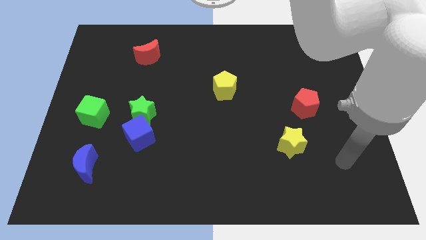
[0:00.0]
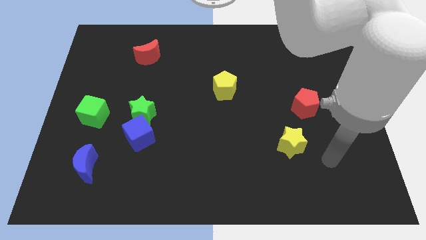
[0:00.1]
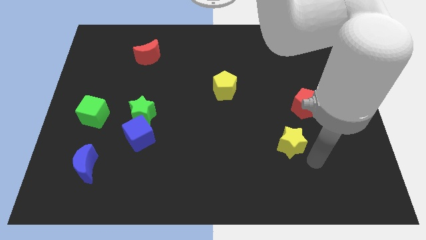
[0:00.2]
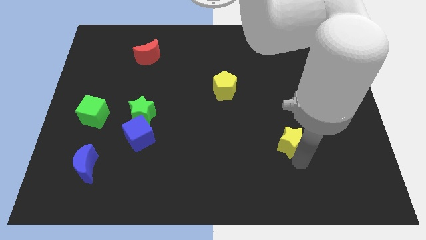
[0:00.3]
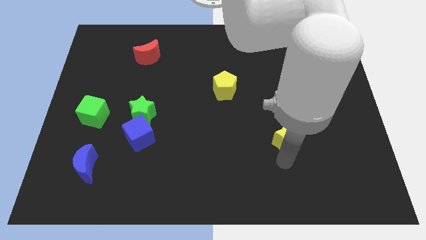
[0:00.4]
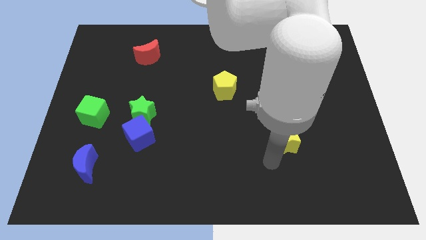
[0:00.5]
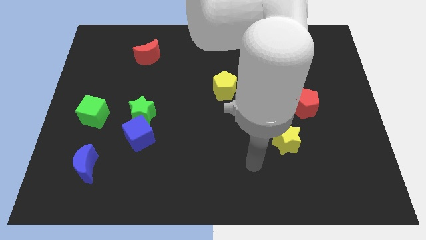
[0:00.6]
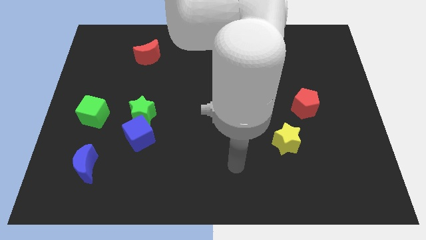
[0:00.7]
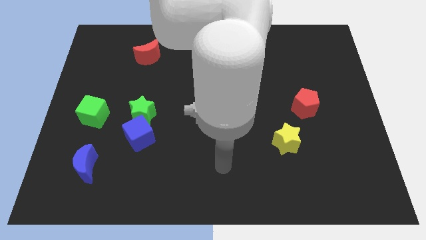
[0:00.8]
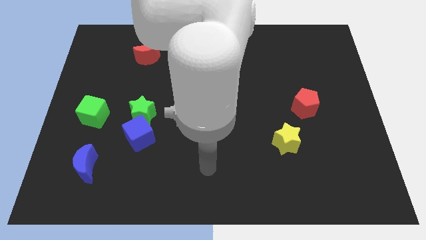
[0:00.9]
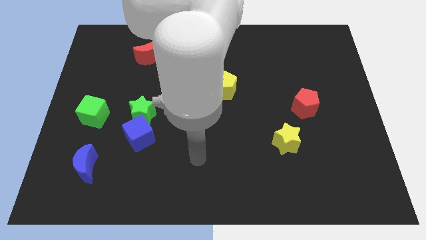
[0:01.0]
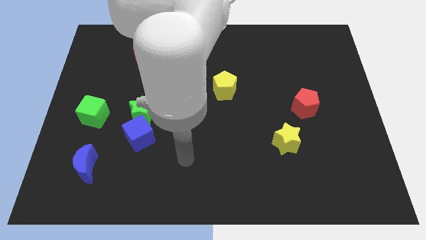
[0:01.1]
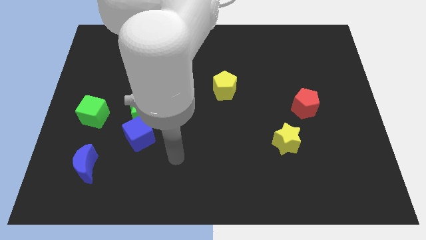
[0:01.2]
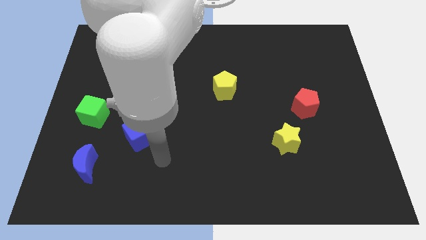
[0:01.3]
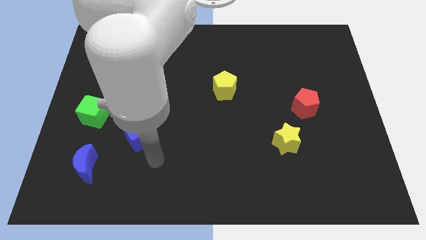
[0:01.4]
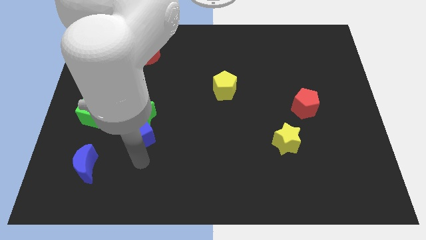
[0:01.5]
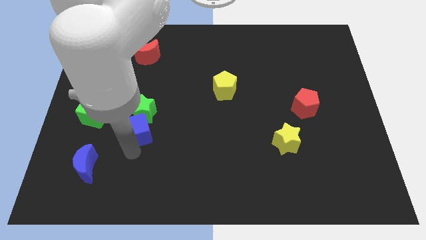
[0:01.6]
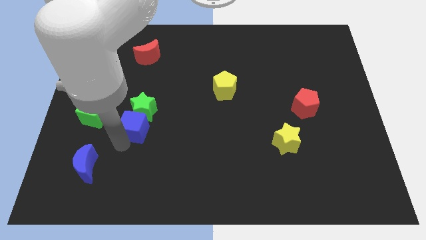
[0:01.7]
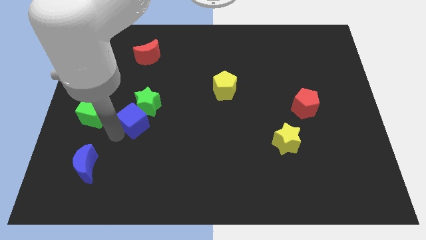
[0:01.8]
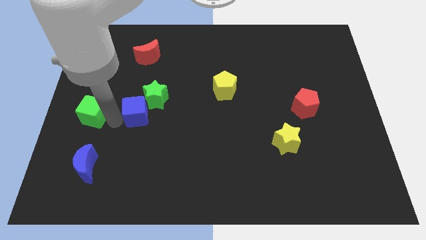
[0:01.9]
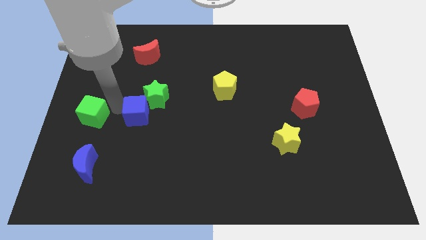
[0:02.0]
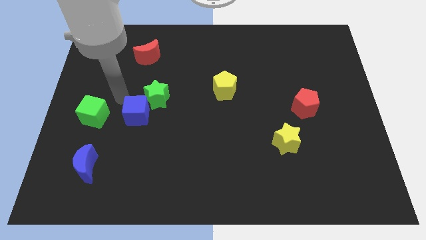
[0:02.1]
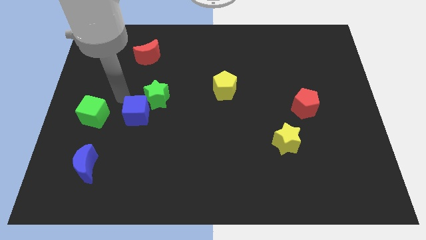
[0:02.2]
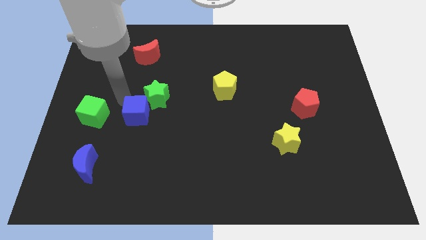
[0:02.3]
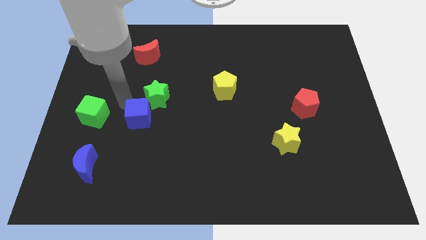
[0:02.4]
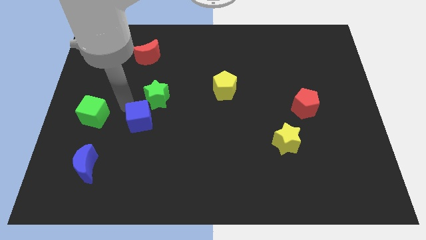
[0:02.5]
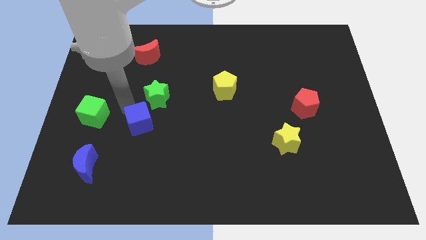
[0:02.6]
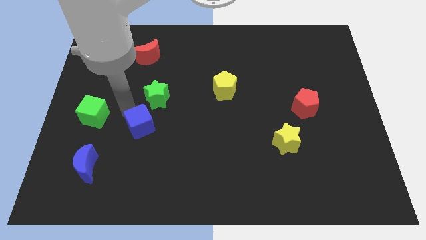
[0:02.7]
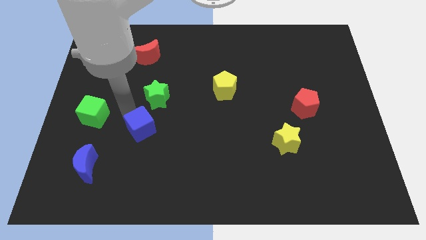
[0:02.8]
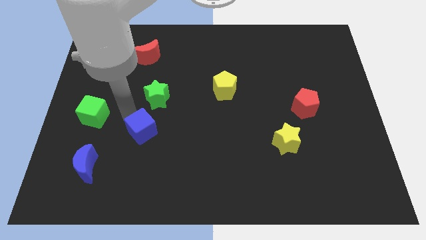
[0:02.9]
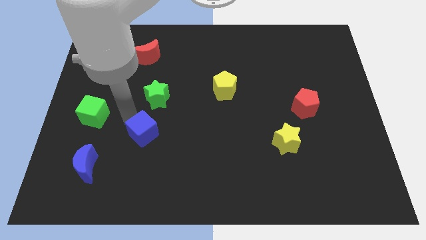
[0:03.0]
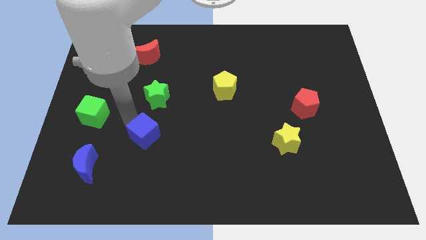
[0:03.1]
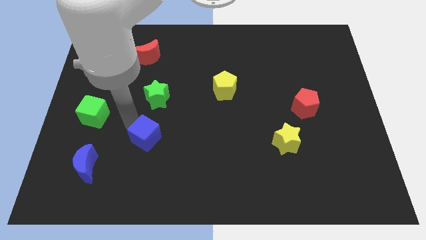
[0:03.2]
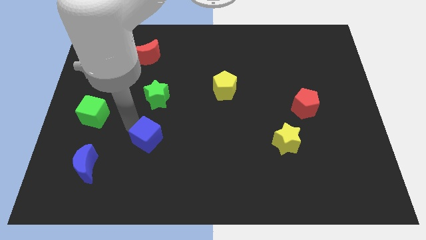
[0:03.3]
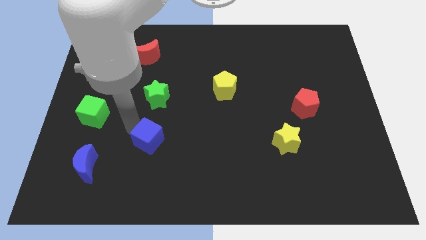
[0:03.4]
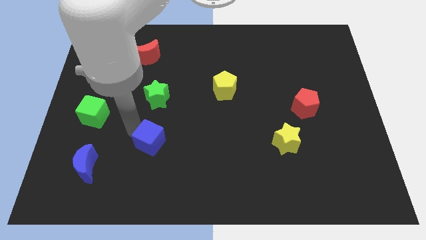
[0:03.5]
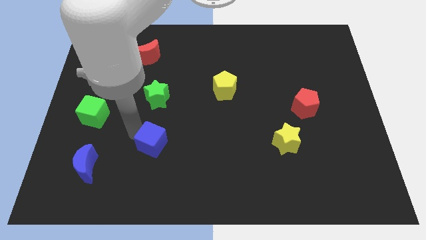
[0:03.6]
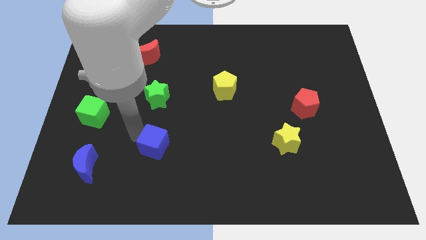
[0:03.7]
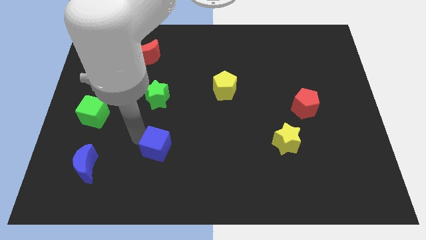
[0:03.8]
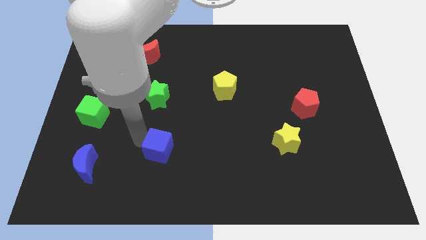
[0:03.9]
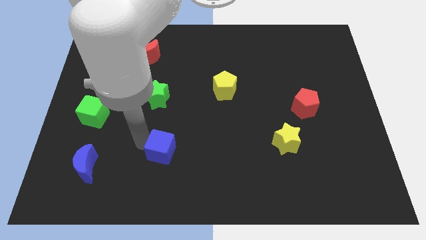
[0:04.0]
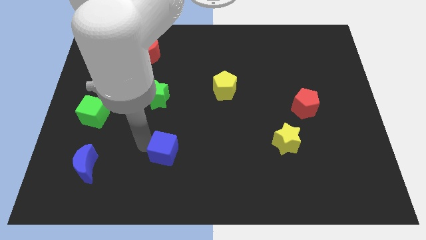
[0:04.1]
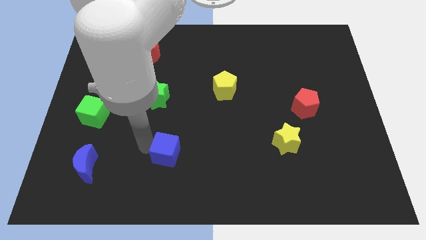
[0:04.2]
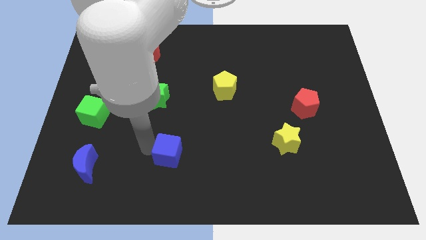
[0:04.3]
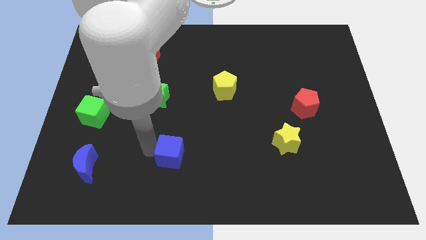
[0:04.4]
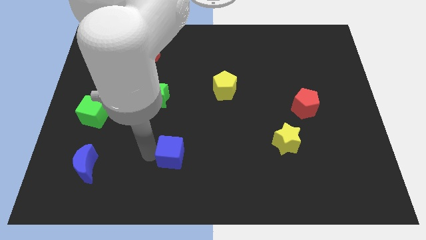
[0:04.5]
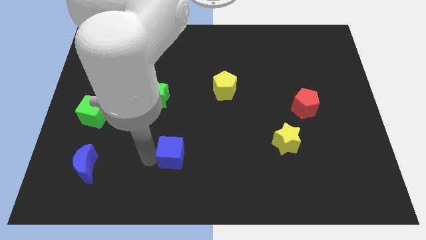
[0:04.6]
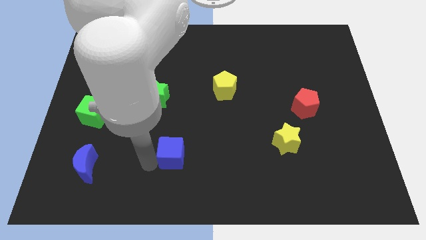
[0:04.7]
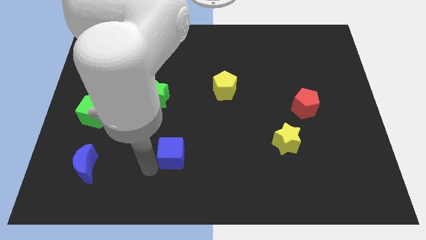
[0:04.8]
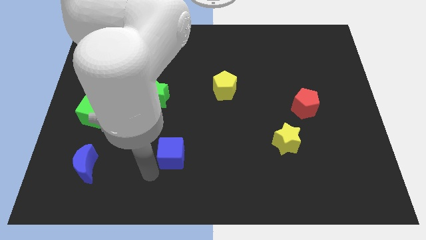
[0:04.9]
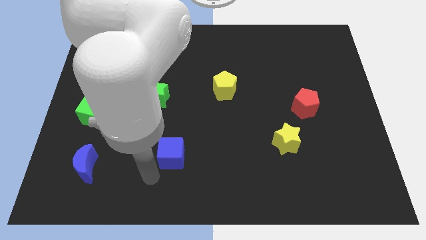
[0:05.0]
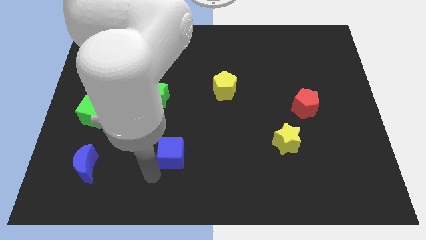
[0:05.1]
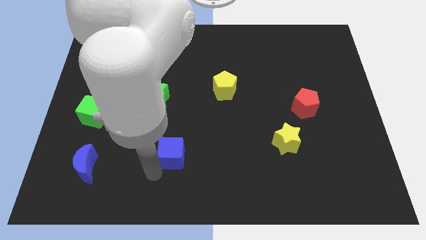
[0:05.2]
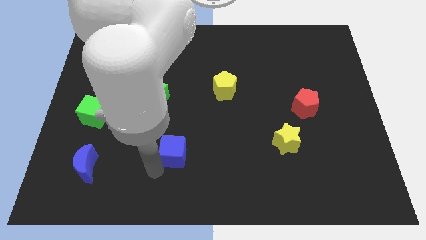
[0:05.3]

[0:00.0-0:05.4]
slightly move the blue cube to the right

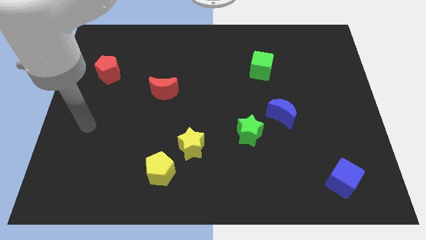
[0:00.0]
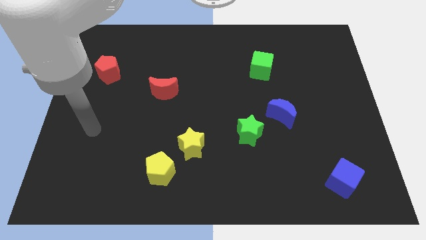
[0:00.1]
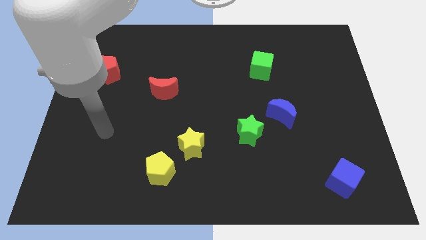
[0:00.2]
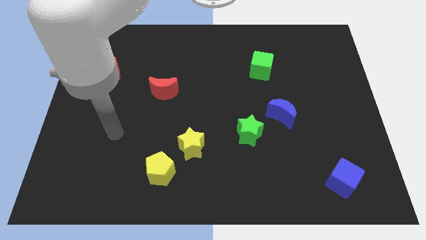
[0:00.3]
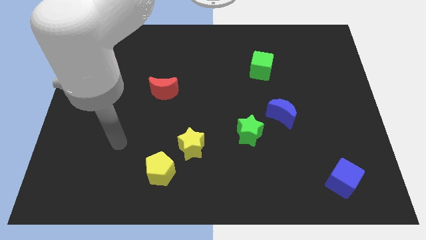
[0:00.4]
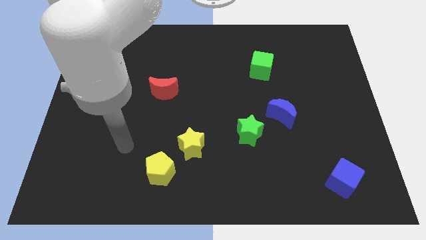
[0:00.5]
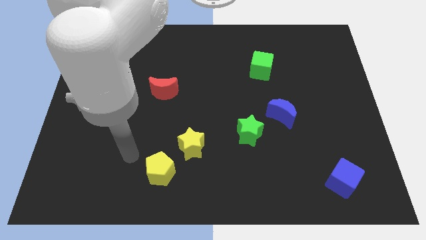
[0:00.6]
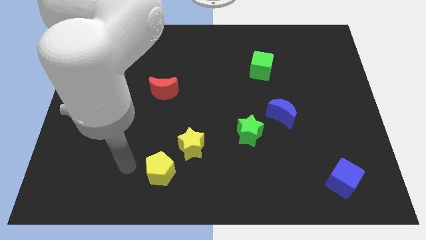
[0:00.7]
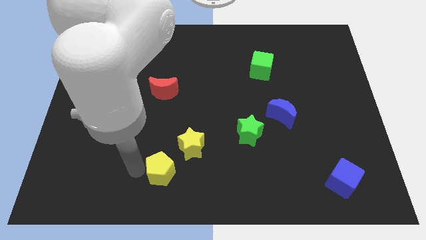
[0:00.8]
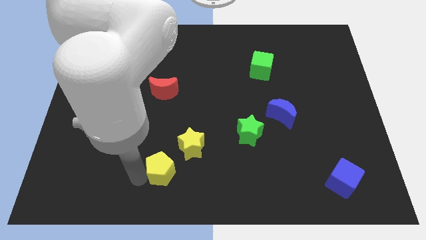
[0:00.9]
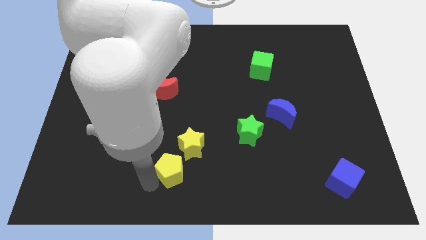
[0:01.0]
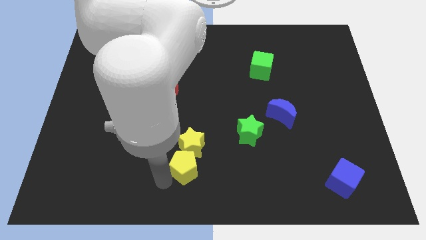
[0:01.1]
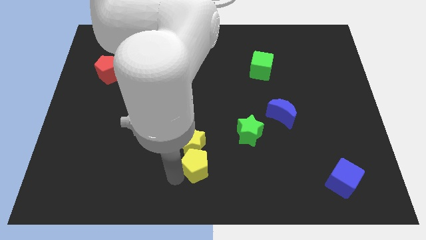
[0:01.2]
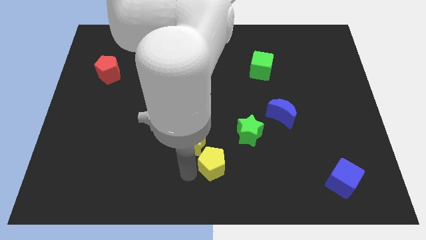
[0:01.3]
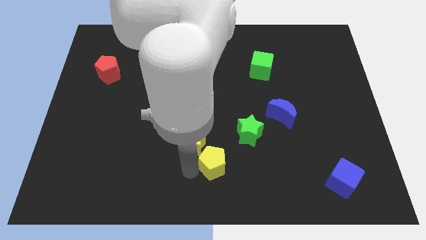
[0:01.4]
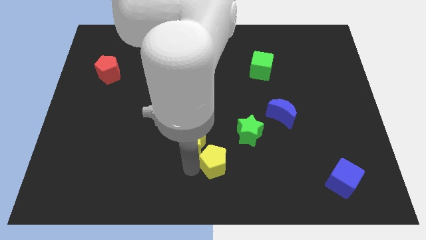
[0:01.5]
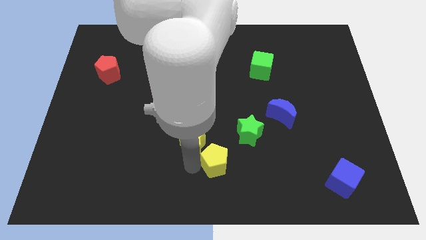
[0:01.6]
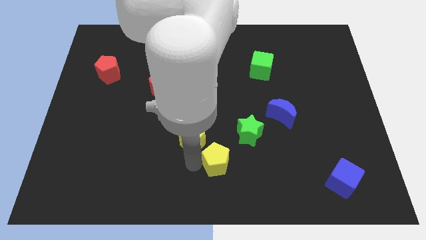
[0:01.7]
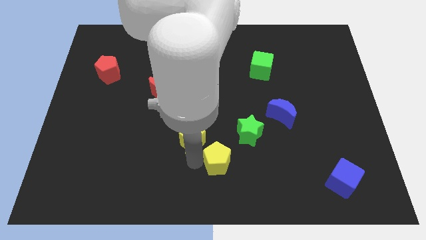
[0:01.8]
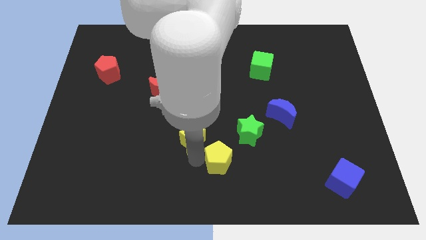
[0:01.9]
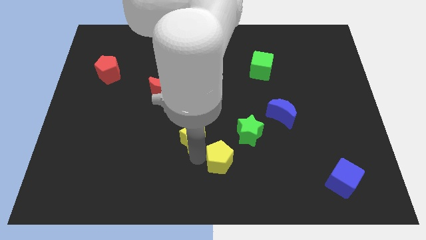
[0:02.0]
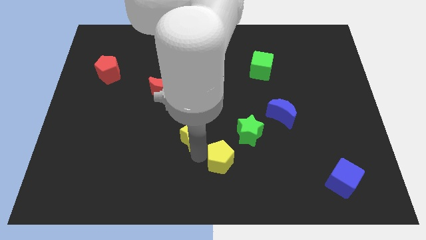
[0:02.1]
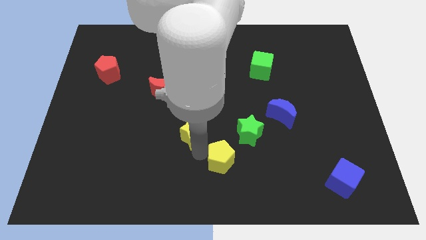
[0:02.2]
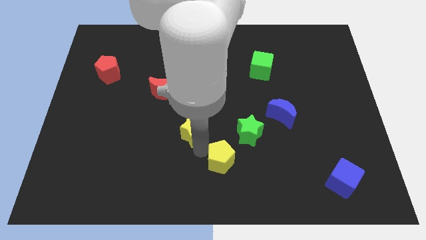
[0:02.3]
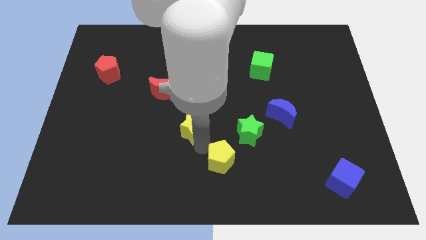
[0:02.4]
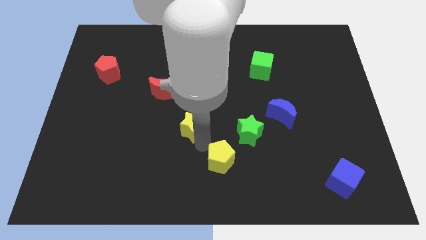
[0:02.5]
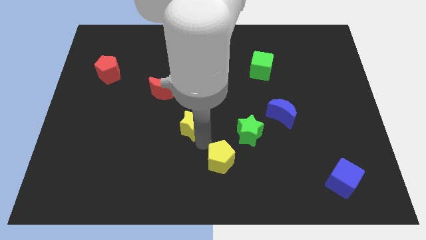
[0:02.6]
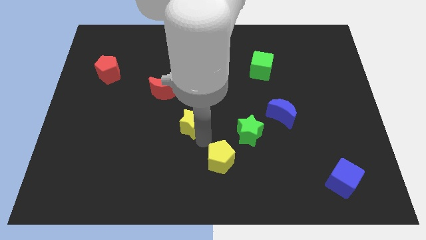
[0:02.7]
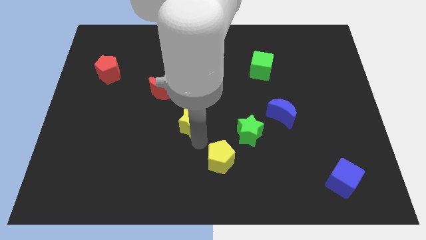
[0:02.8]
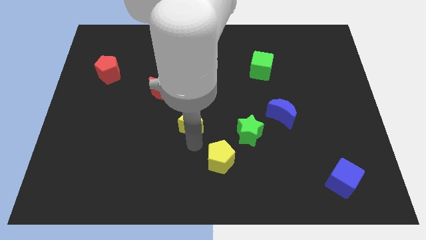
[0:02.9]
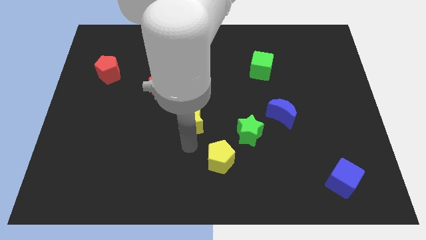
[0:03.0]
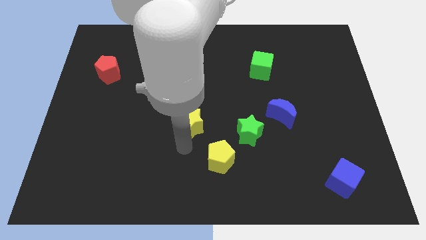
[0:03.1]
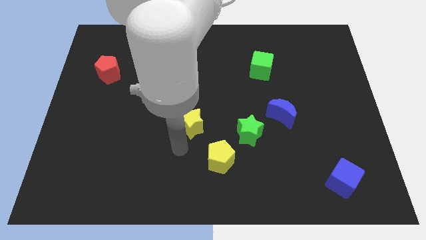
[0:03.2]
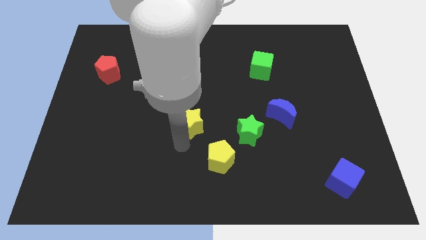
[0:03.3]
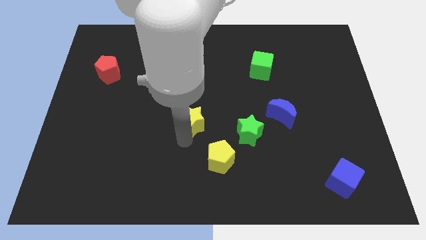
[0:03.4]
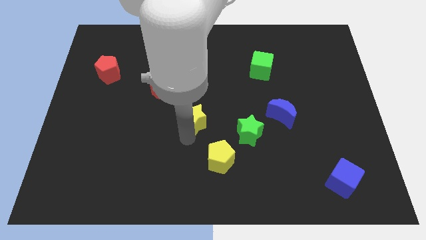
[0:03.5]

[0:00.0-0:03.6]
push the yellow star somewhat upwards
